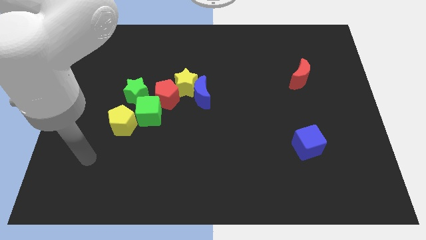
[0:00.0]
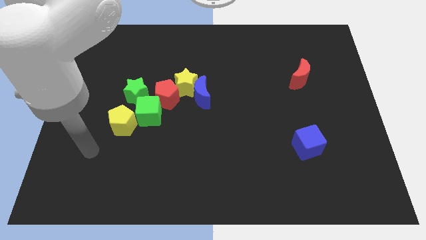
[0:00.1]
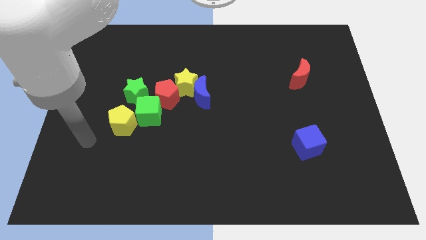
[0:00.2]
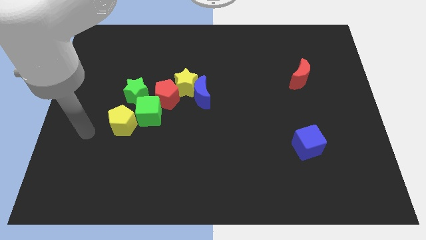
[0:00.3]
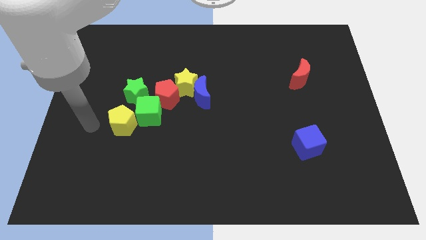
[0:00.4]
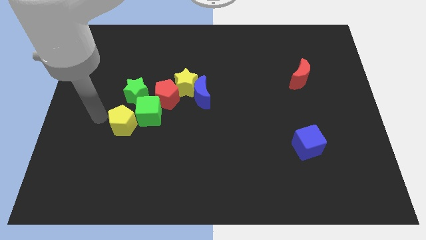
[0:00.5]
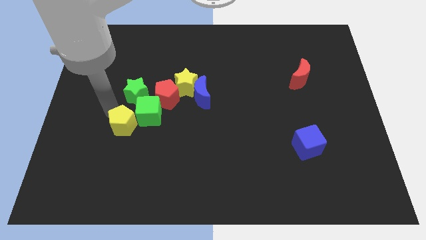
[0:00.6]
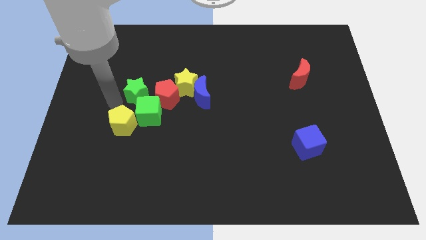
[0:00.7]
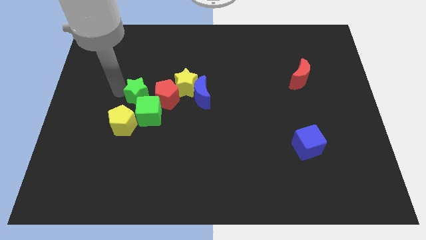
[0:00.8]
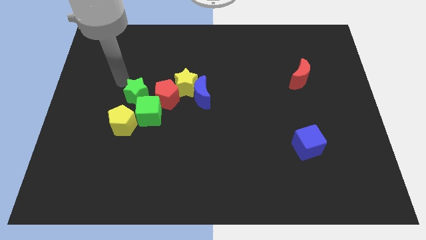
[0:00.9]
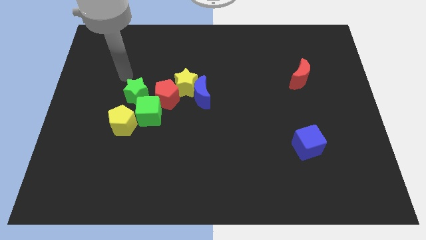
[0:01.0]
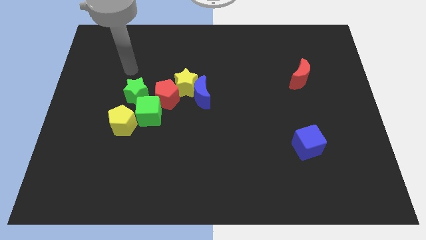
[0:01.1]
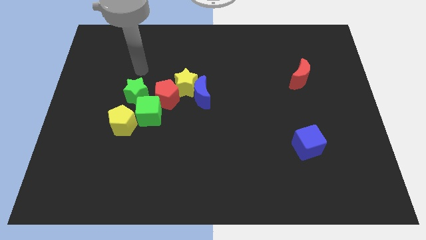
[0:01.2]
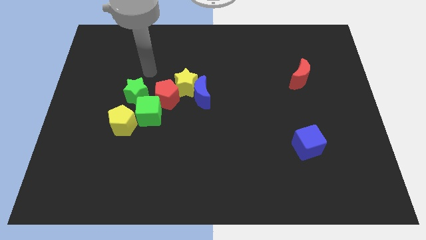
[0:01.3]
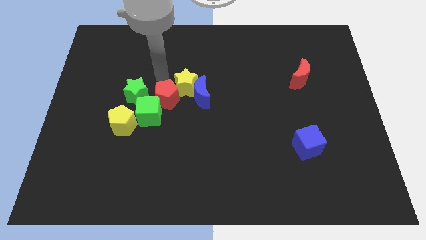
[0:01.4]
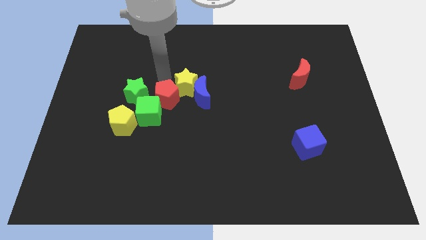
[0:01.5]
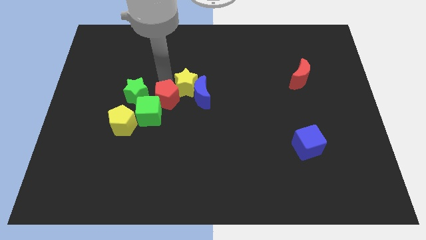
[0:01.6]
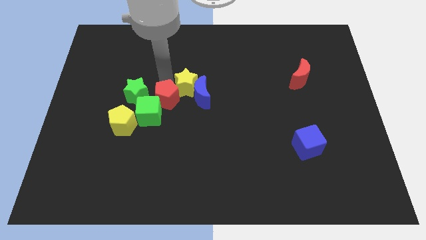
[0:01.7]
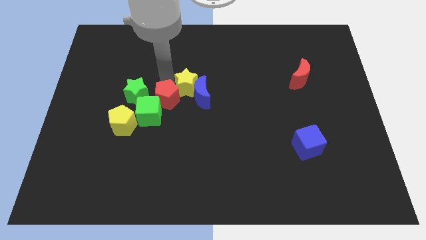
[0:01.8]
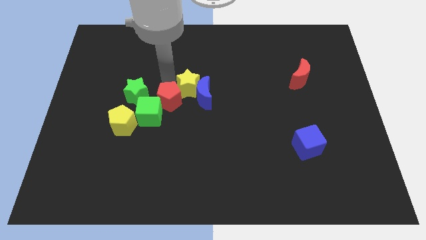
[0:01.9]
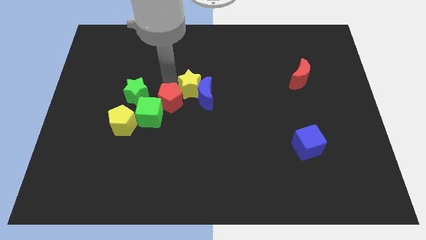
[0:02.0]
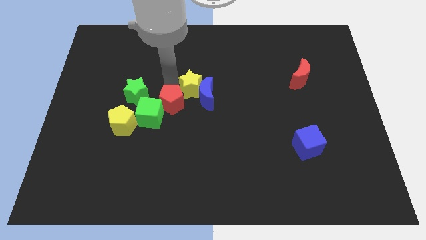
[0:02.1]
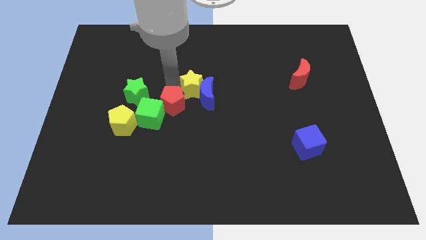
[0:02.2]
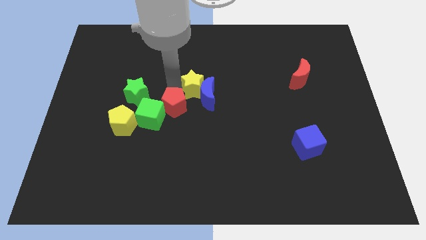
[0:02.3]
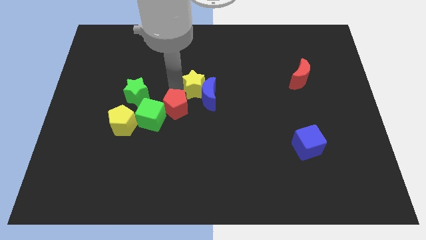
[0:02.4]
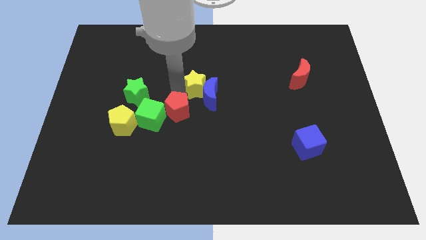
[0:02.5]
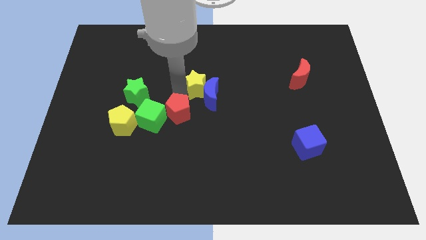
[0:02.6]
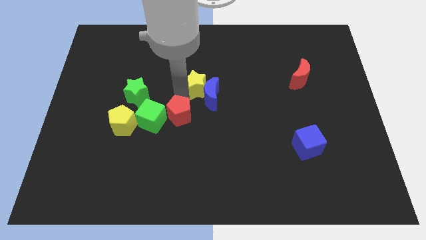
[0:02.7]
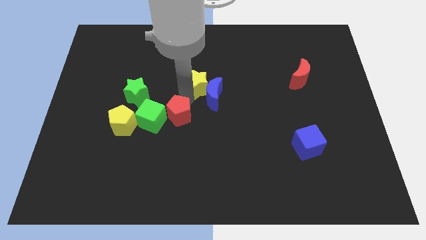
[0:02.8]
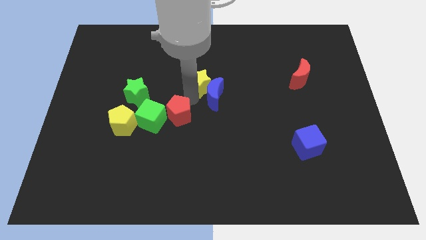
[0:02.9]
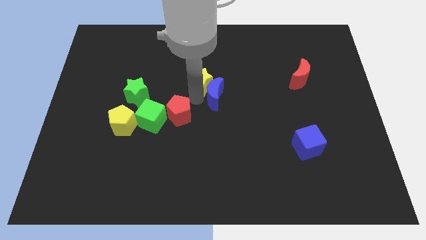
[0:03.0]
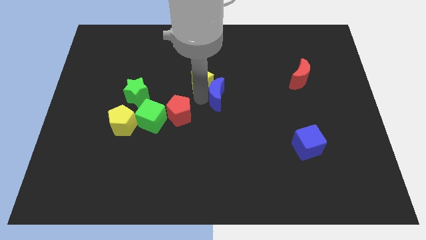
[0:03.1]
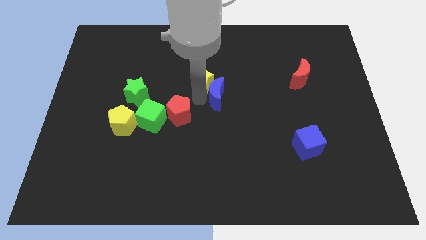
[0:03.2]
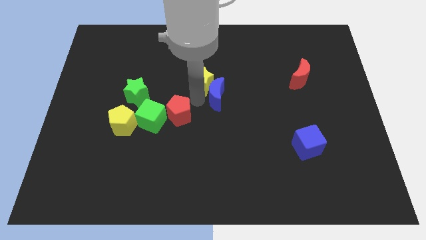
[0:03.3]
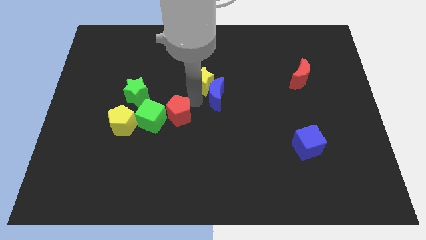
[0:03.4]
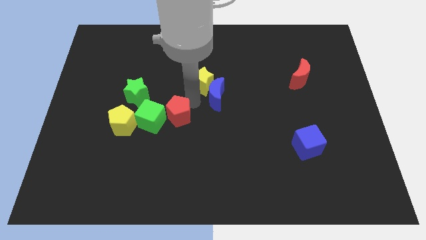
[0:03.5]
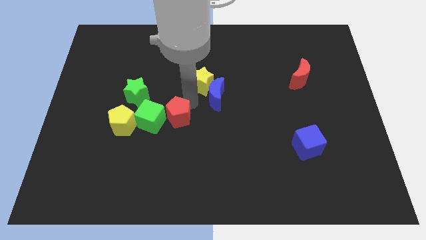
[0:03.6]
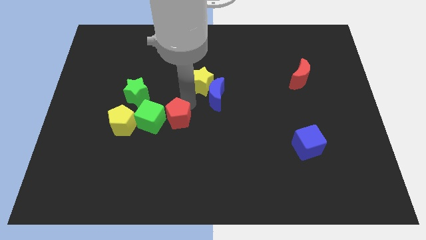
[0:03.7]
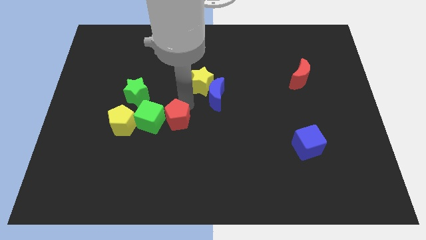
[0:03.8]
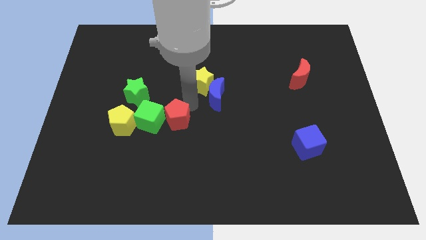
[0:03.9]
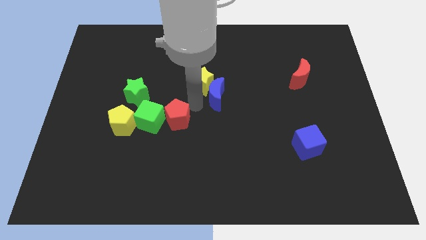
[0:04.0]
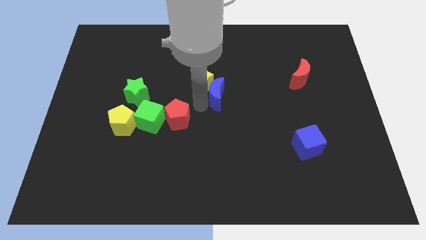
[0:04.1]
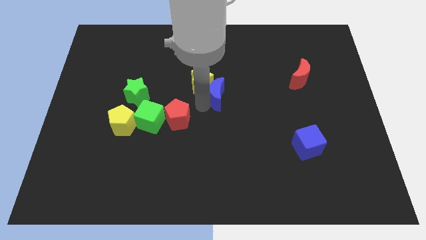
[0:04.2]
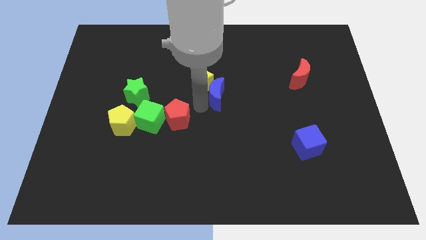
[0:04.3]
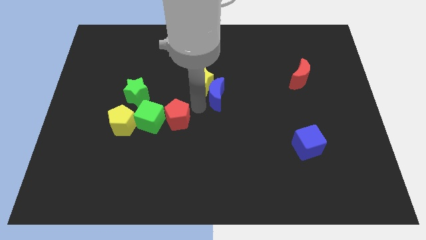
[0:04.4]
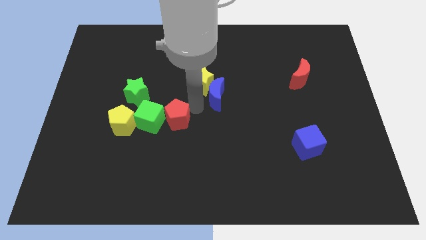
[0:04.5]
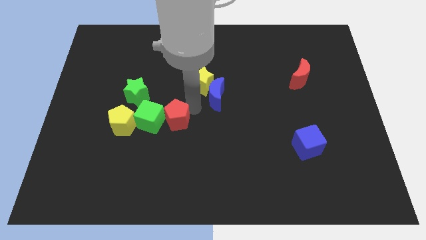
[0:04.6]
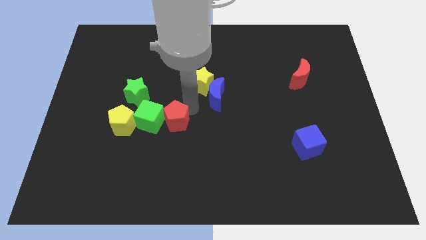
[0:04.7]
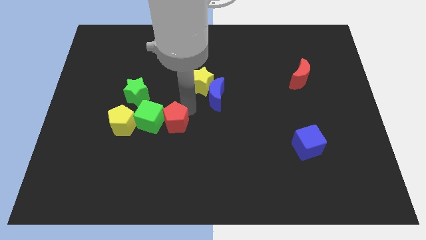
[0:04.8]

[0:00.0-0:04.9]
slightly push the red pentagon downwards

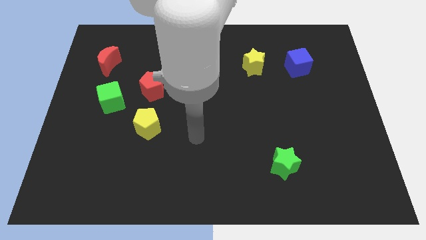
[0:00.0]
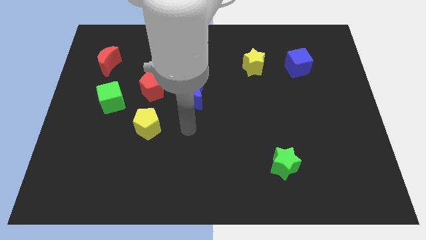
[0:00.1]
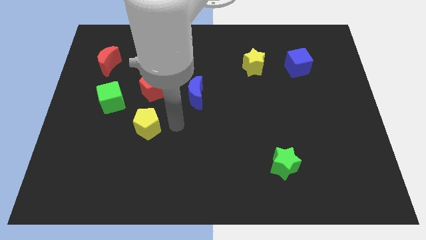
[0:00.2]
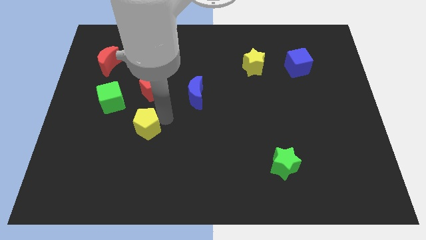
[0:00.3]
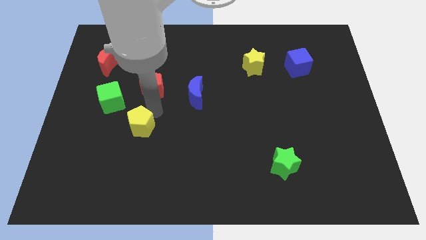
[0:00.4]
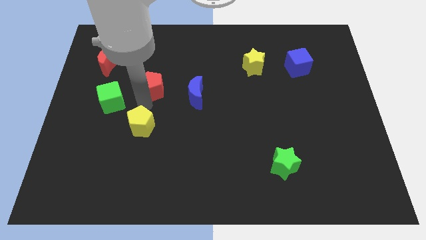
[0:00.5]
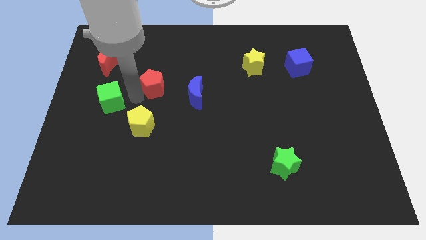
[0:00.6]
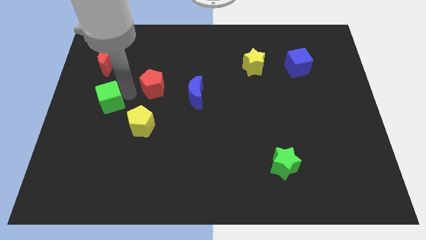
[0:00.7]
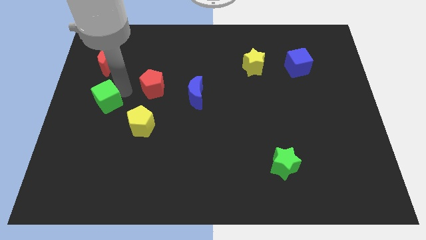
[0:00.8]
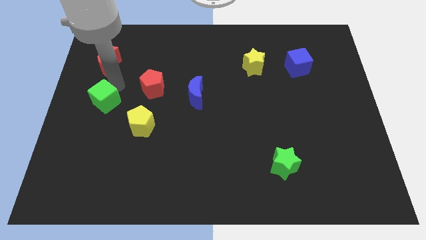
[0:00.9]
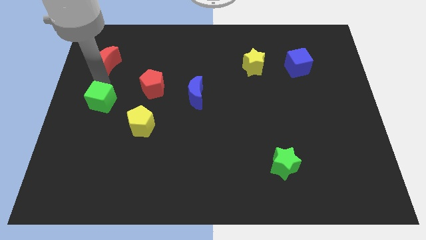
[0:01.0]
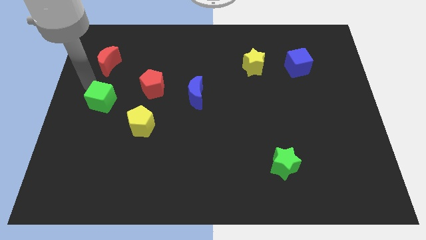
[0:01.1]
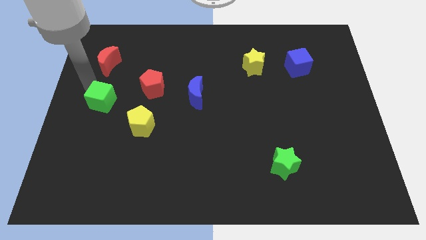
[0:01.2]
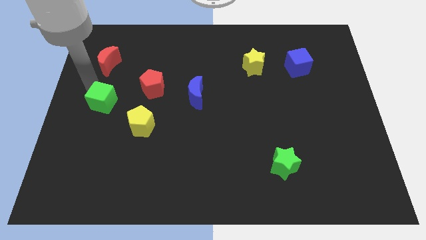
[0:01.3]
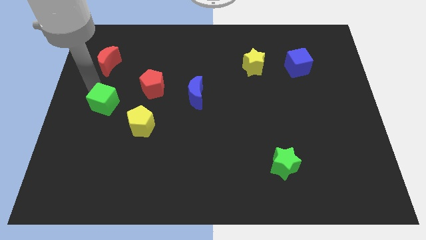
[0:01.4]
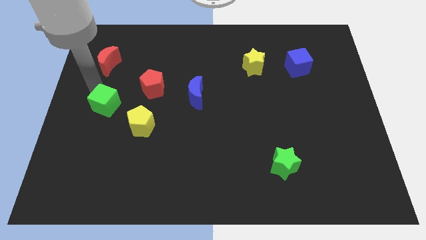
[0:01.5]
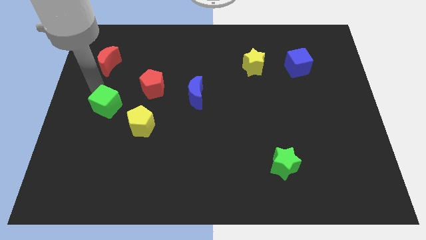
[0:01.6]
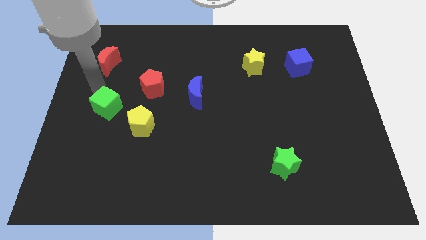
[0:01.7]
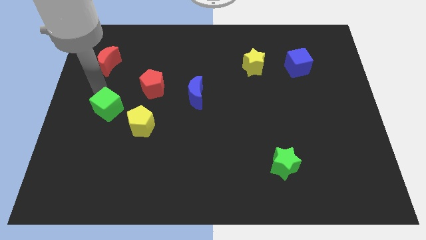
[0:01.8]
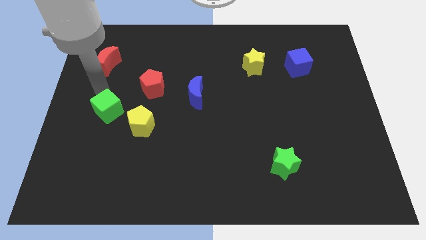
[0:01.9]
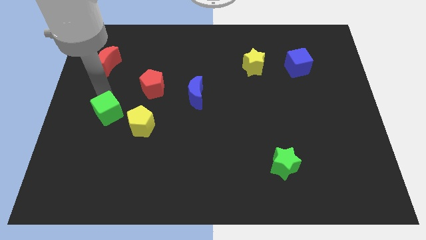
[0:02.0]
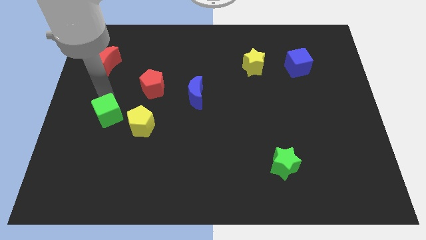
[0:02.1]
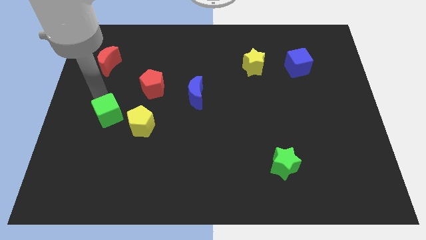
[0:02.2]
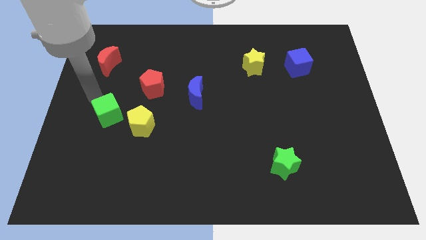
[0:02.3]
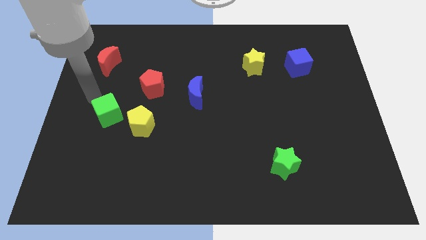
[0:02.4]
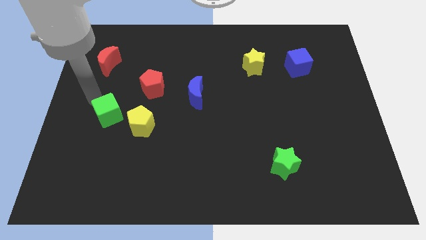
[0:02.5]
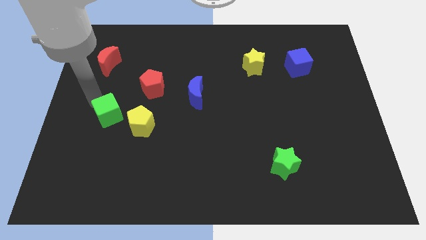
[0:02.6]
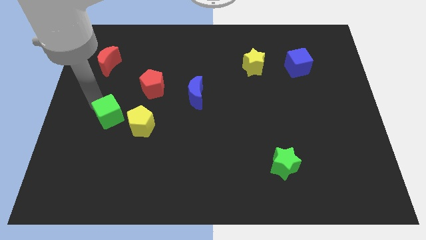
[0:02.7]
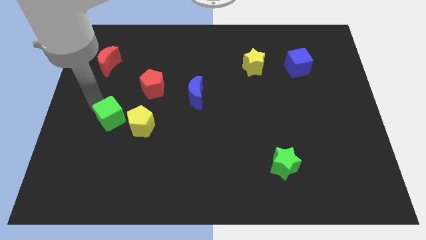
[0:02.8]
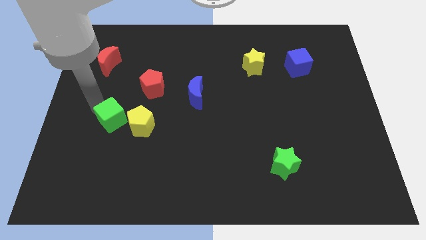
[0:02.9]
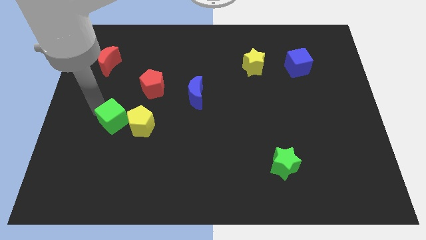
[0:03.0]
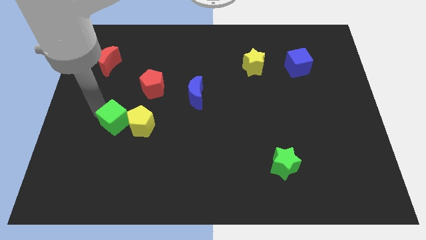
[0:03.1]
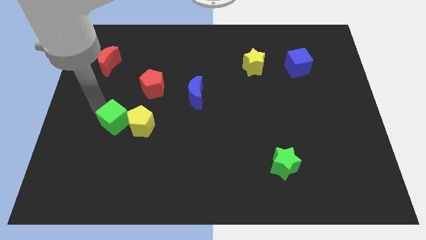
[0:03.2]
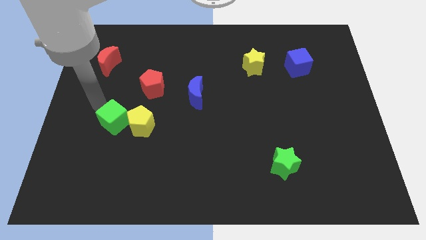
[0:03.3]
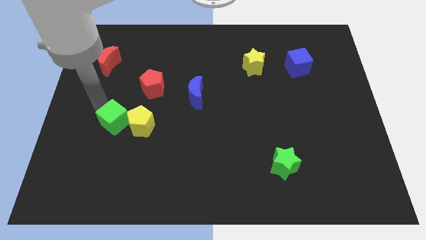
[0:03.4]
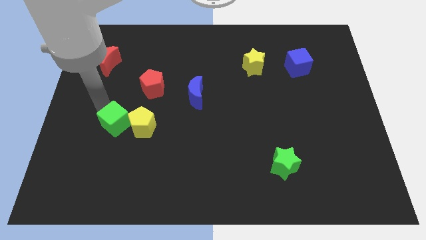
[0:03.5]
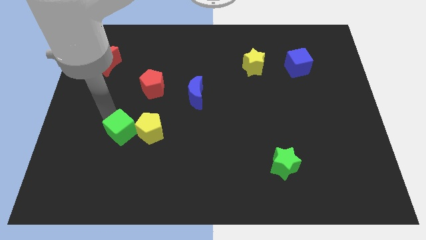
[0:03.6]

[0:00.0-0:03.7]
slide the green cube a little bit down and right diagonally
